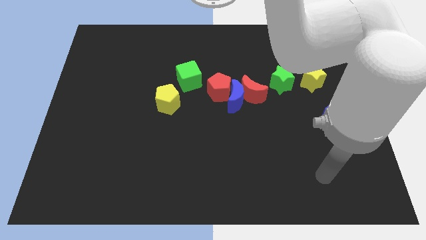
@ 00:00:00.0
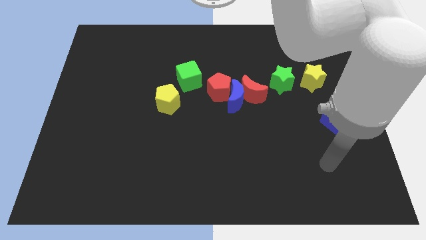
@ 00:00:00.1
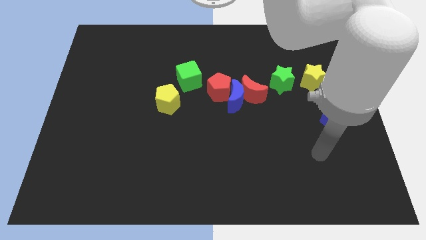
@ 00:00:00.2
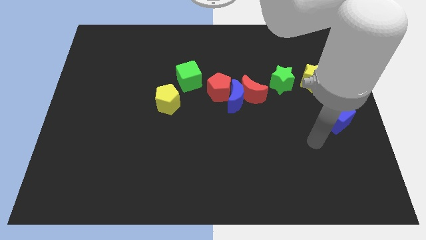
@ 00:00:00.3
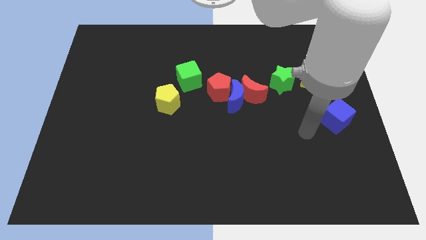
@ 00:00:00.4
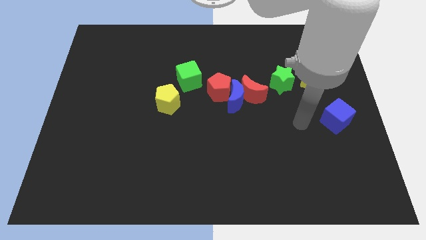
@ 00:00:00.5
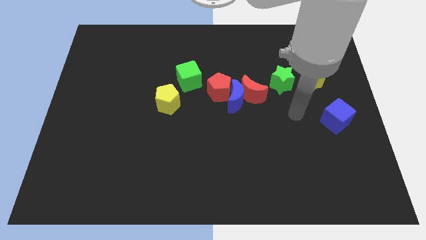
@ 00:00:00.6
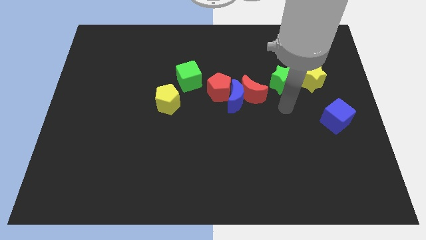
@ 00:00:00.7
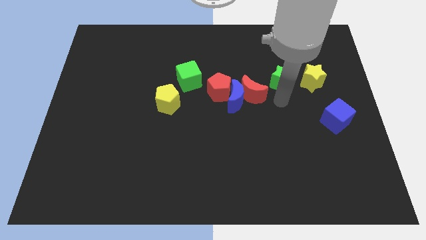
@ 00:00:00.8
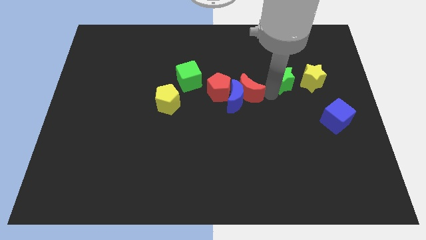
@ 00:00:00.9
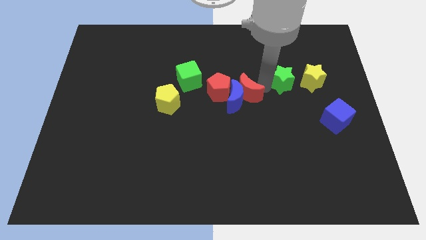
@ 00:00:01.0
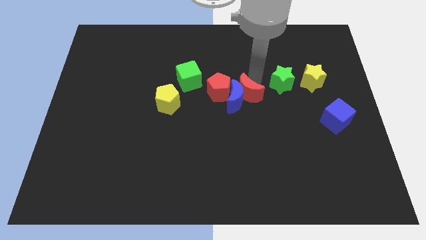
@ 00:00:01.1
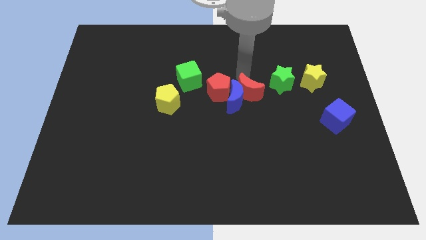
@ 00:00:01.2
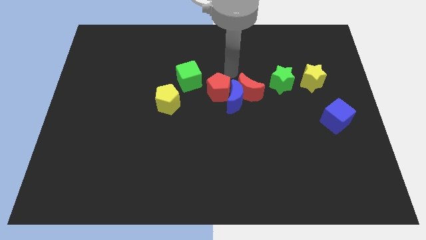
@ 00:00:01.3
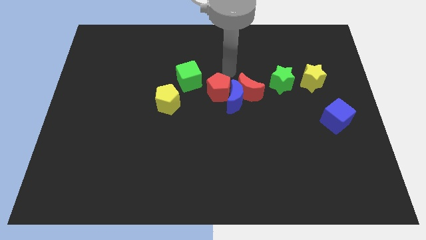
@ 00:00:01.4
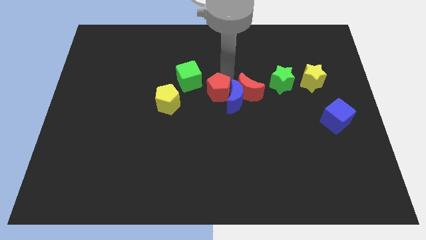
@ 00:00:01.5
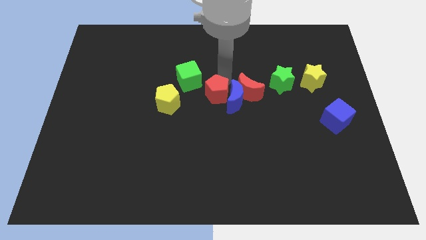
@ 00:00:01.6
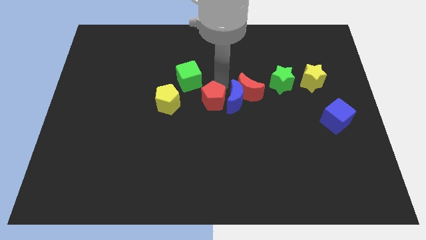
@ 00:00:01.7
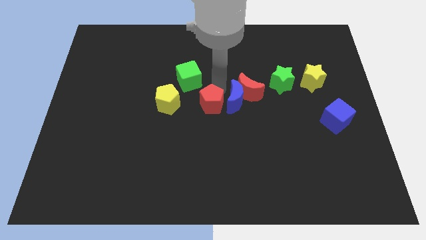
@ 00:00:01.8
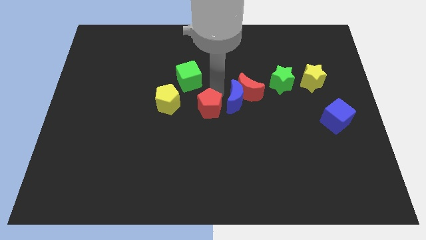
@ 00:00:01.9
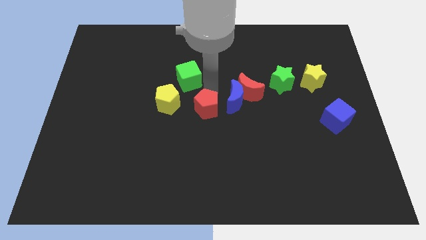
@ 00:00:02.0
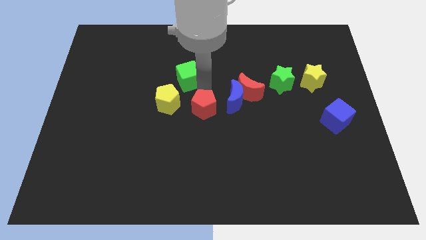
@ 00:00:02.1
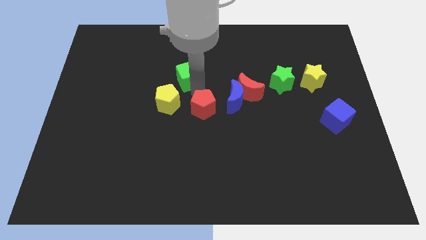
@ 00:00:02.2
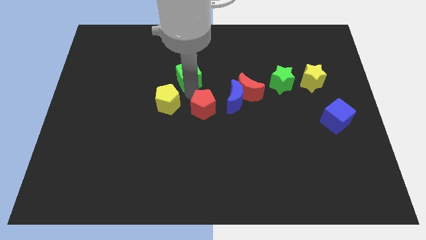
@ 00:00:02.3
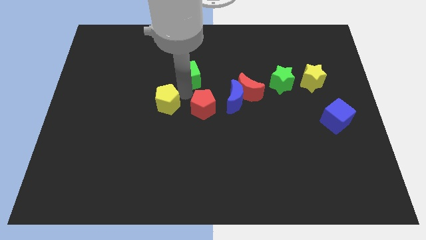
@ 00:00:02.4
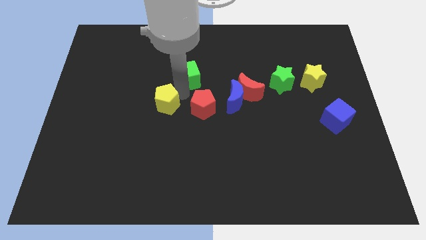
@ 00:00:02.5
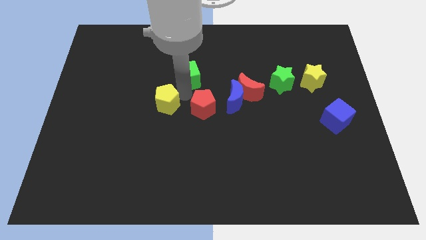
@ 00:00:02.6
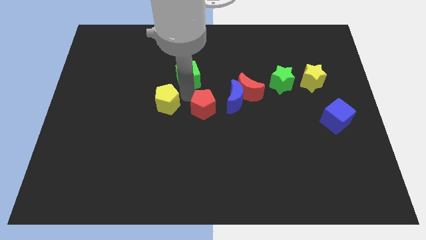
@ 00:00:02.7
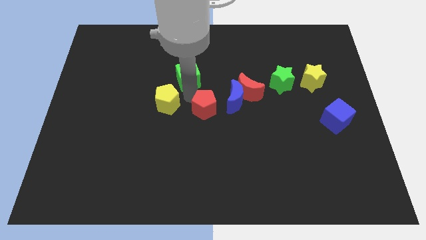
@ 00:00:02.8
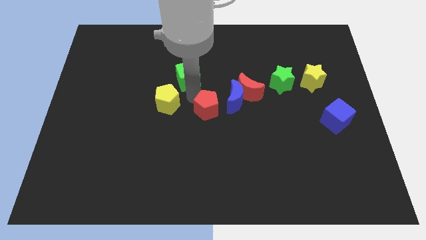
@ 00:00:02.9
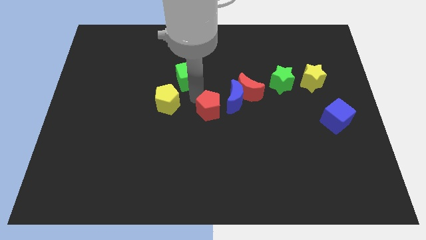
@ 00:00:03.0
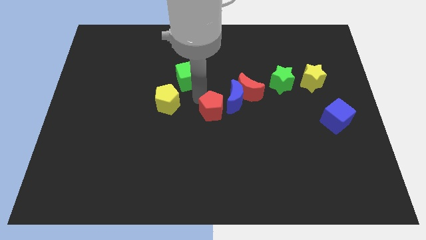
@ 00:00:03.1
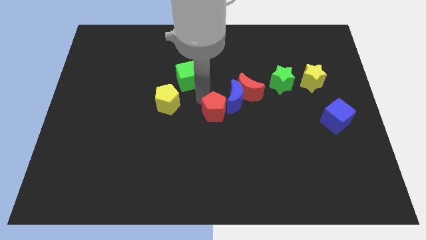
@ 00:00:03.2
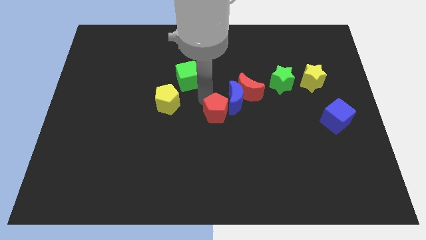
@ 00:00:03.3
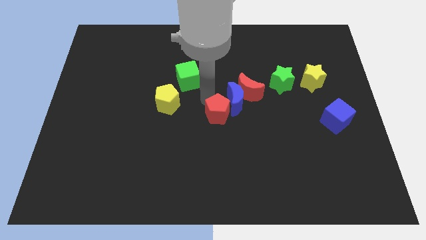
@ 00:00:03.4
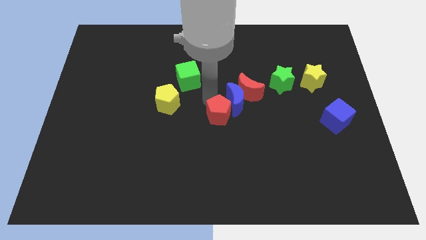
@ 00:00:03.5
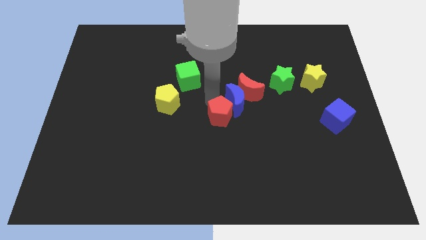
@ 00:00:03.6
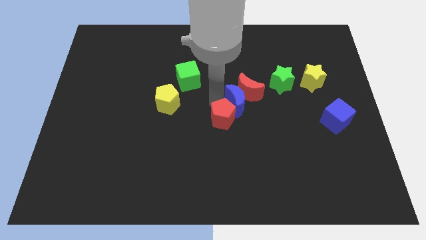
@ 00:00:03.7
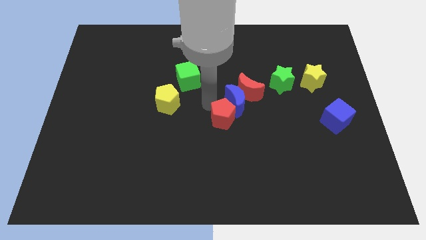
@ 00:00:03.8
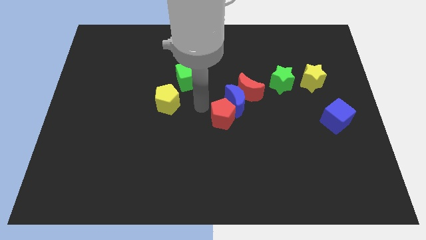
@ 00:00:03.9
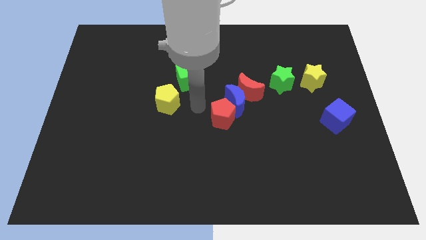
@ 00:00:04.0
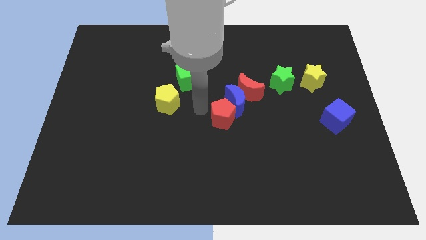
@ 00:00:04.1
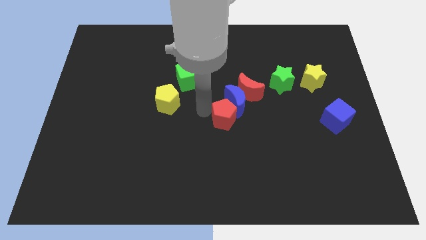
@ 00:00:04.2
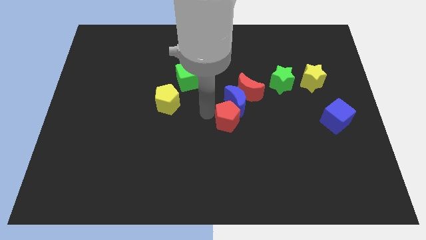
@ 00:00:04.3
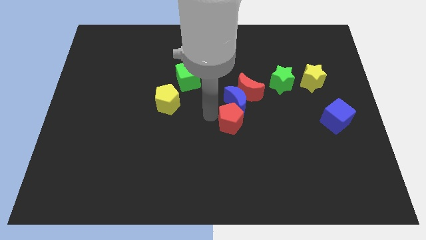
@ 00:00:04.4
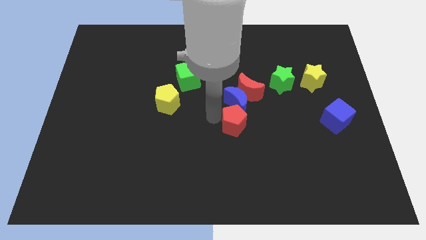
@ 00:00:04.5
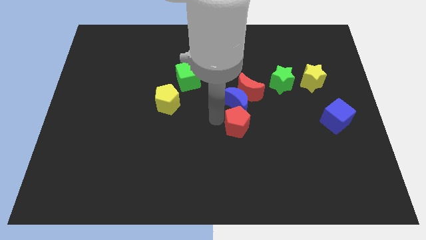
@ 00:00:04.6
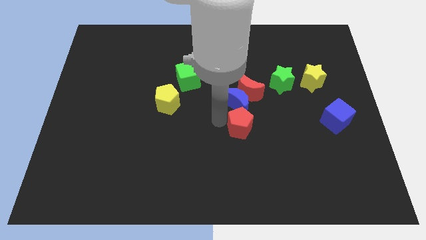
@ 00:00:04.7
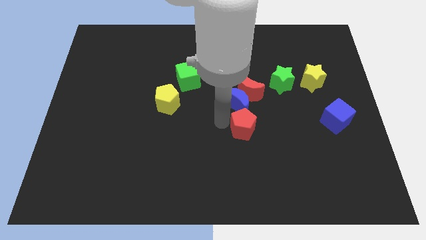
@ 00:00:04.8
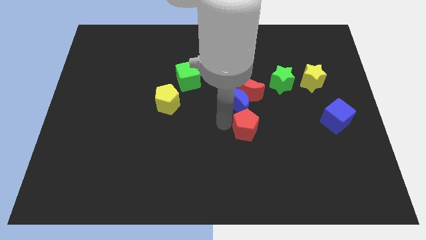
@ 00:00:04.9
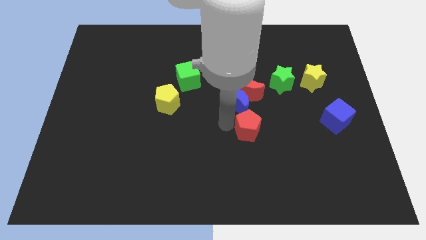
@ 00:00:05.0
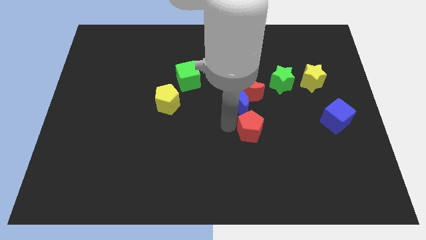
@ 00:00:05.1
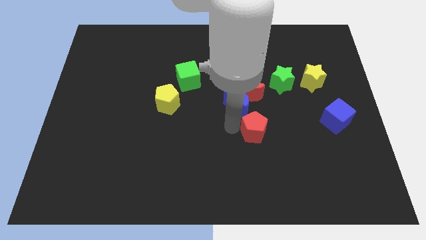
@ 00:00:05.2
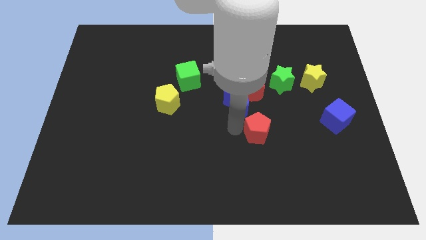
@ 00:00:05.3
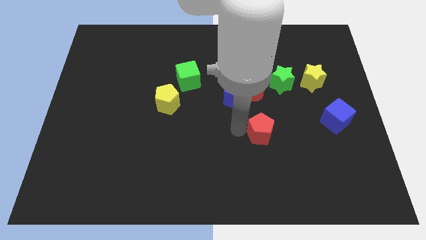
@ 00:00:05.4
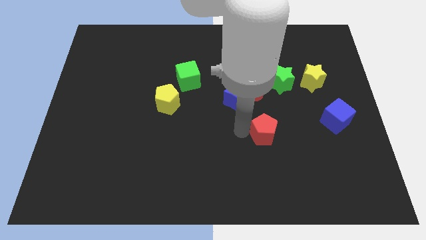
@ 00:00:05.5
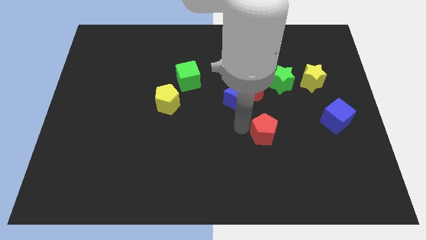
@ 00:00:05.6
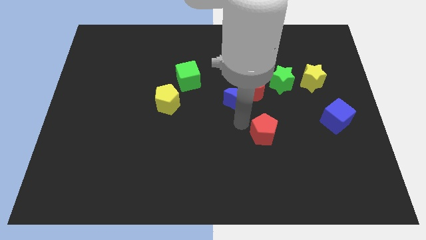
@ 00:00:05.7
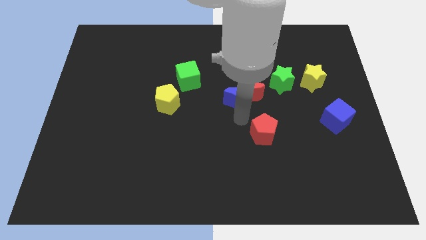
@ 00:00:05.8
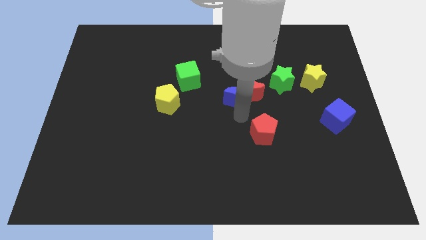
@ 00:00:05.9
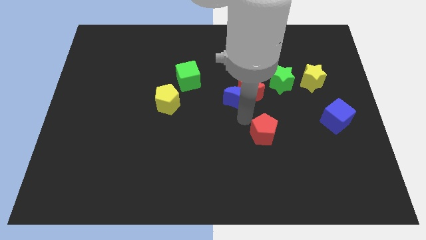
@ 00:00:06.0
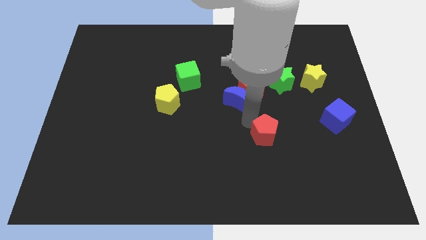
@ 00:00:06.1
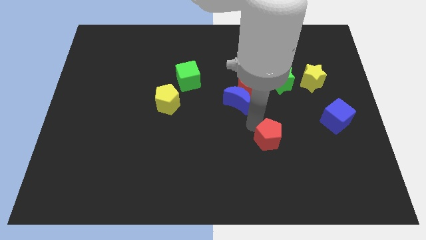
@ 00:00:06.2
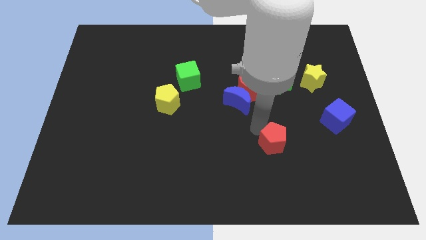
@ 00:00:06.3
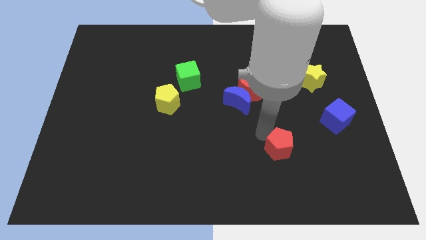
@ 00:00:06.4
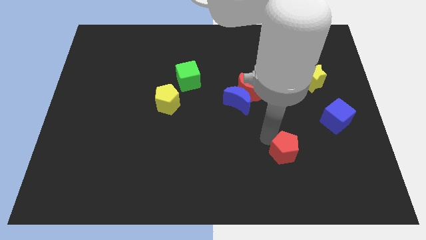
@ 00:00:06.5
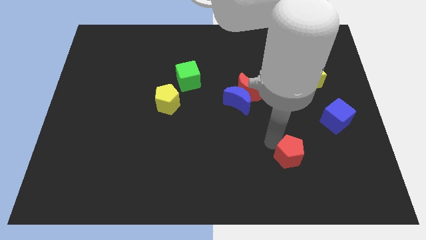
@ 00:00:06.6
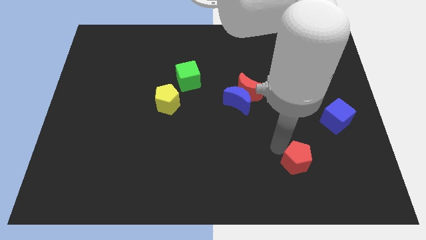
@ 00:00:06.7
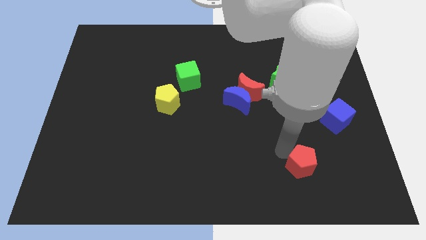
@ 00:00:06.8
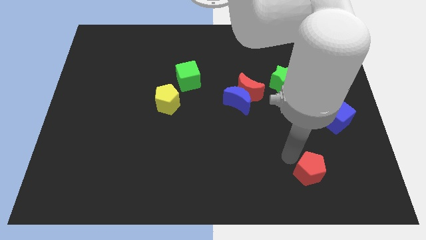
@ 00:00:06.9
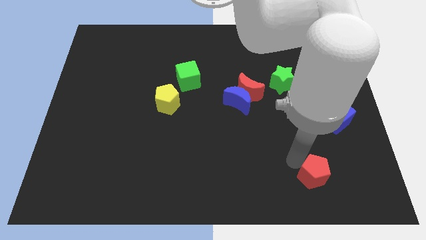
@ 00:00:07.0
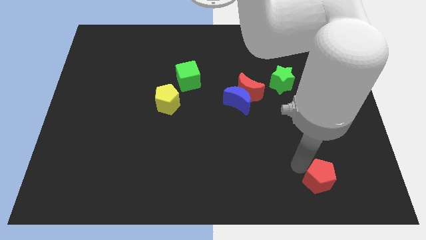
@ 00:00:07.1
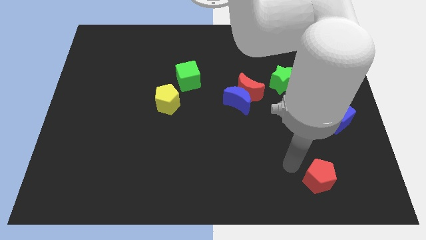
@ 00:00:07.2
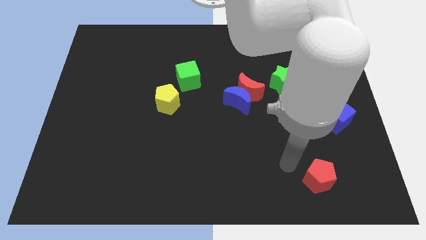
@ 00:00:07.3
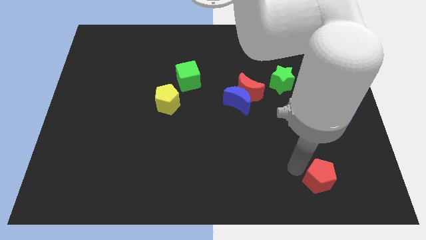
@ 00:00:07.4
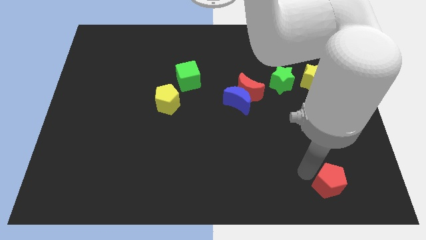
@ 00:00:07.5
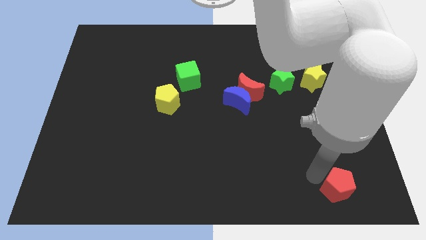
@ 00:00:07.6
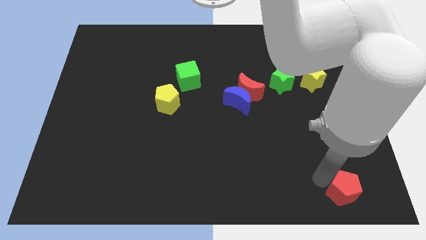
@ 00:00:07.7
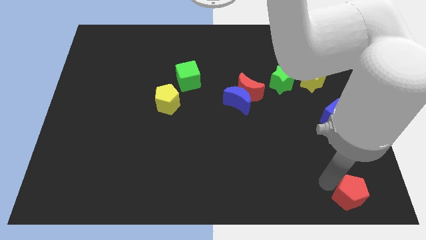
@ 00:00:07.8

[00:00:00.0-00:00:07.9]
put the red pentagon to the bottom right
